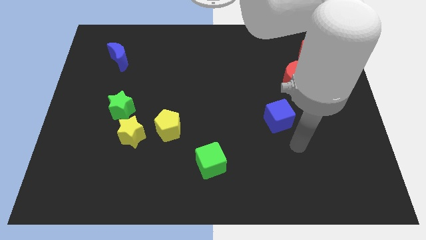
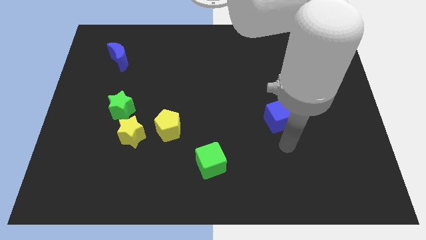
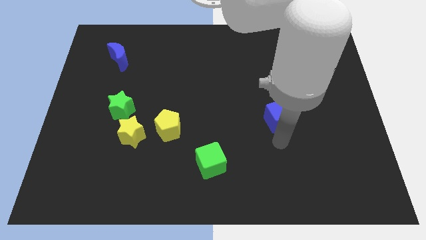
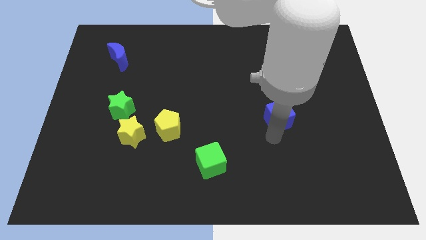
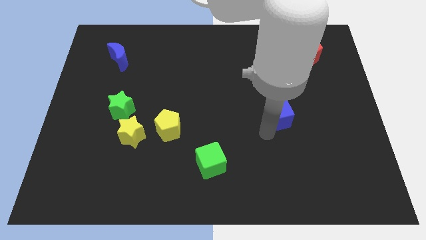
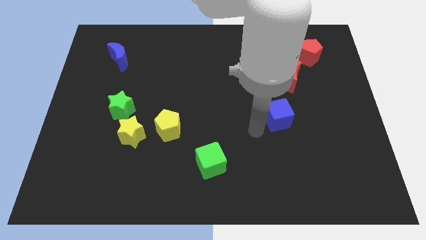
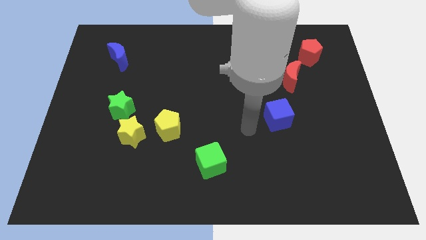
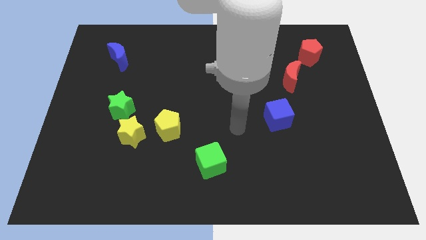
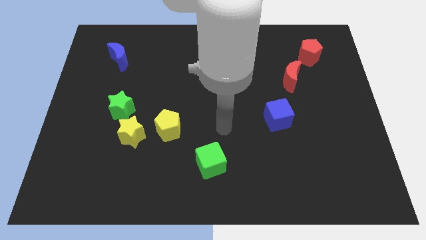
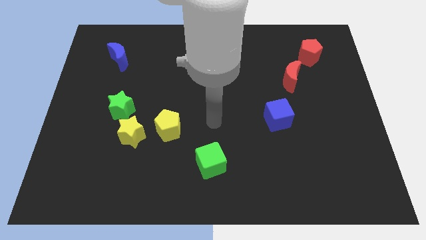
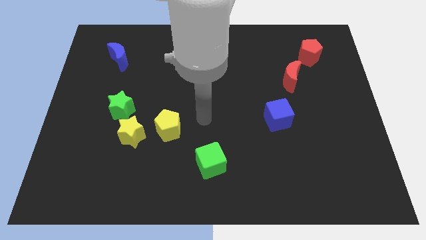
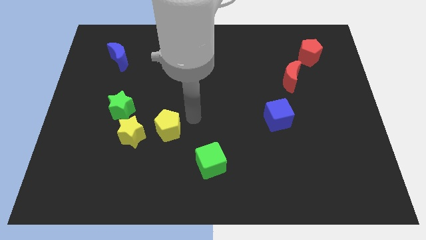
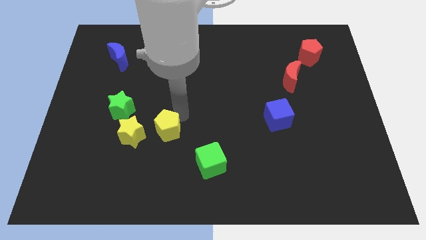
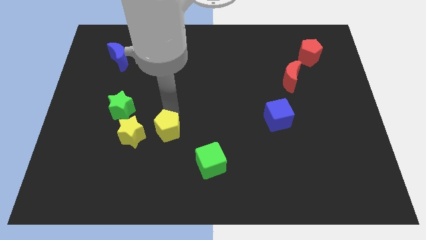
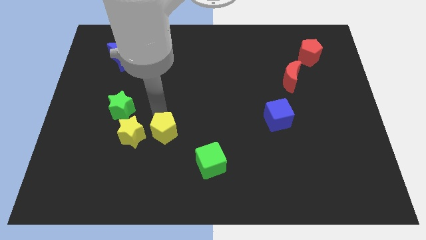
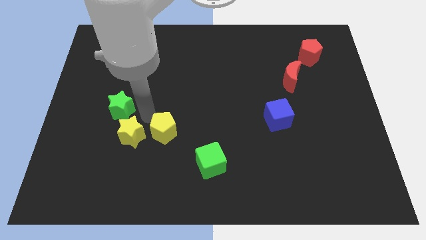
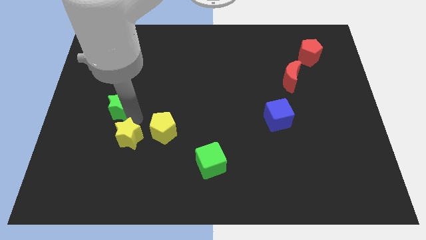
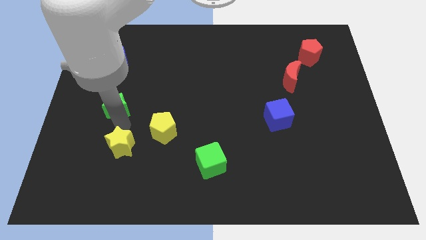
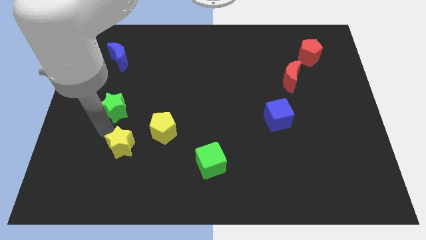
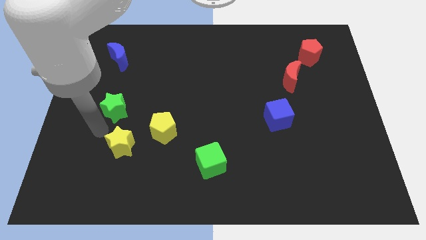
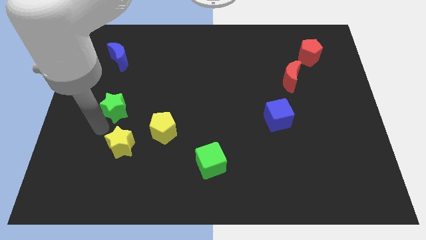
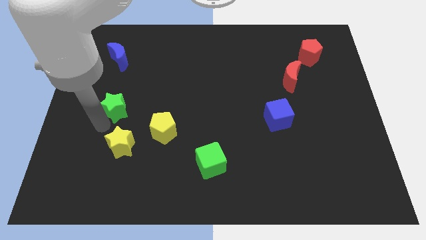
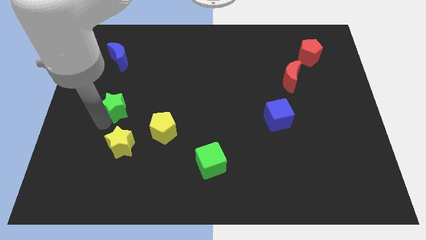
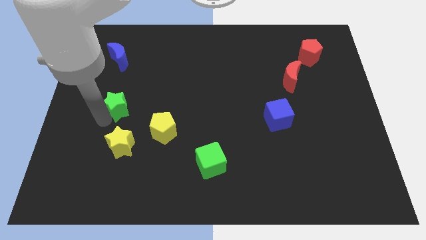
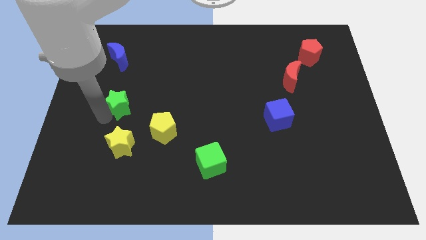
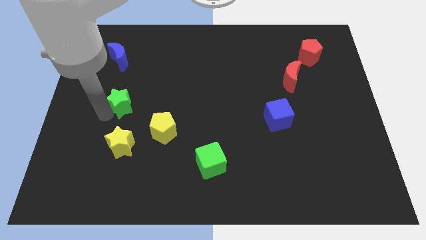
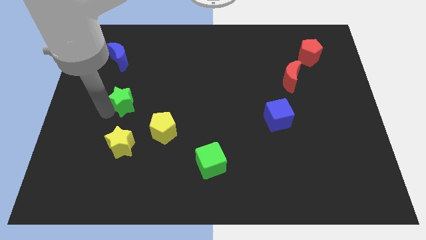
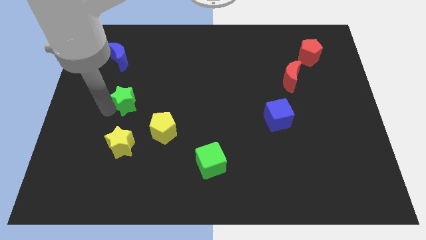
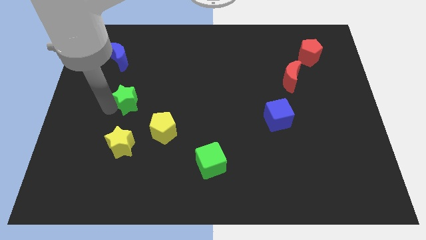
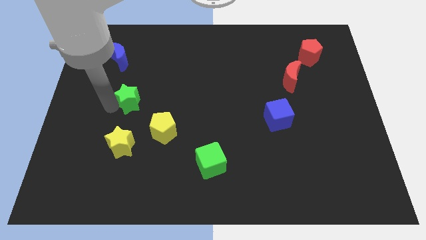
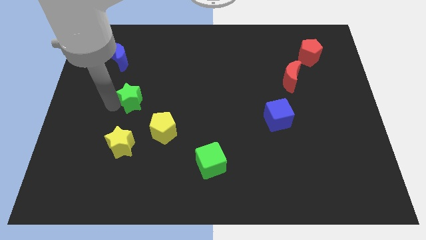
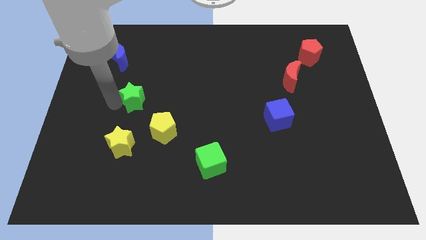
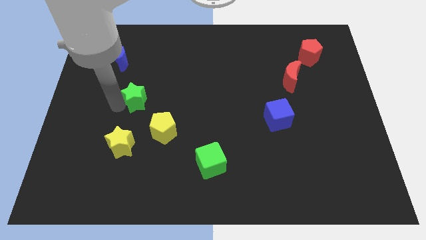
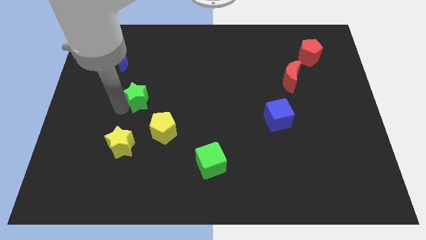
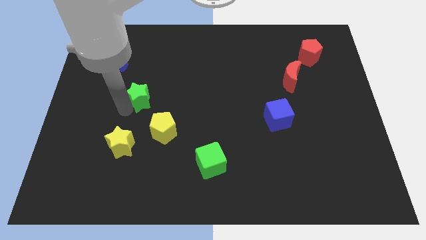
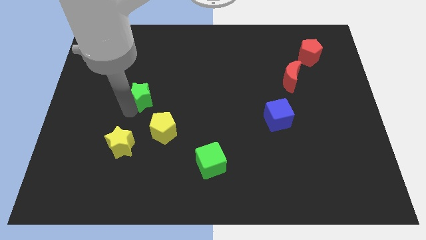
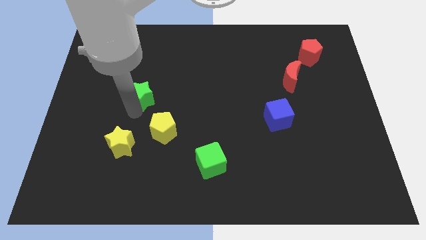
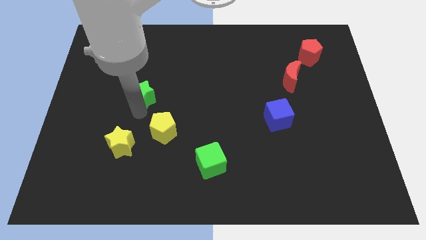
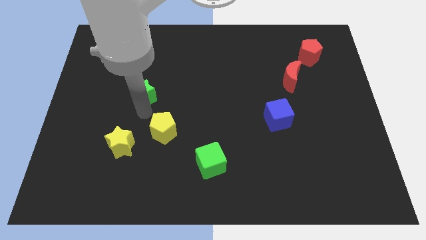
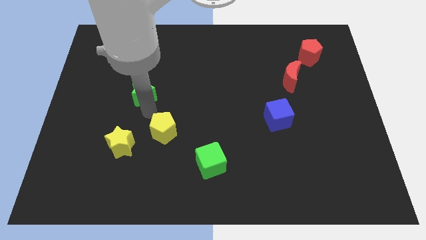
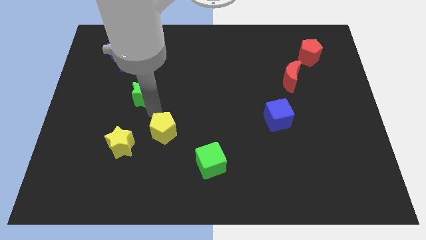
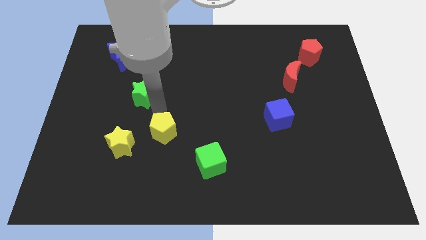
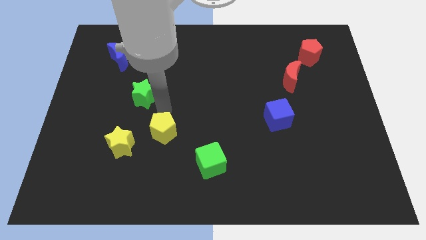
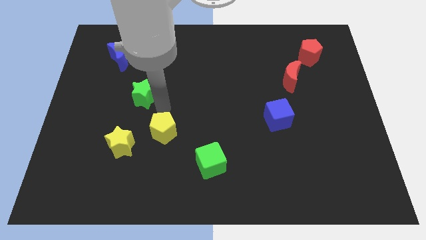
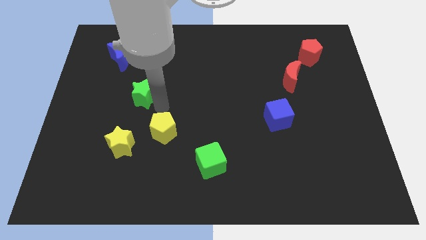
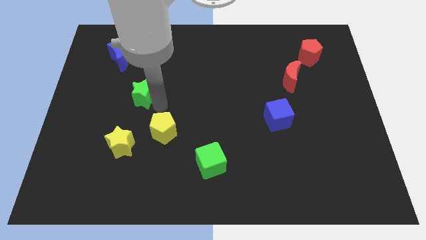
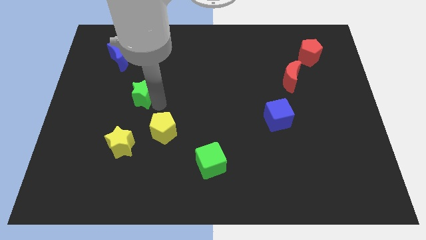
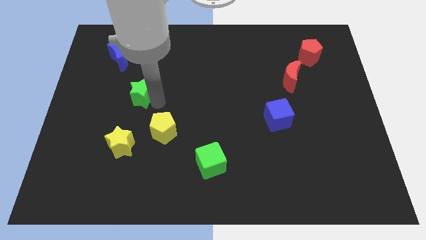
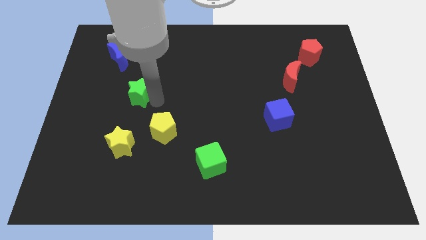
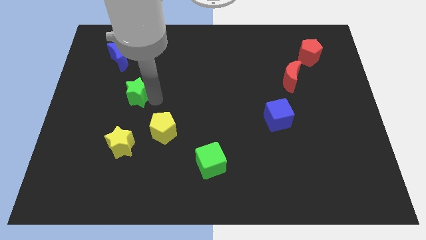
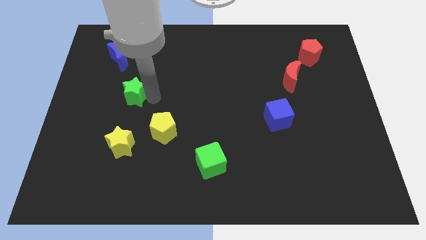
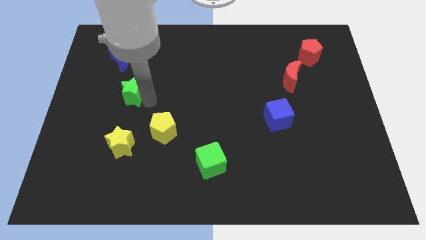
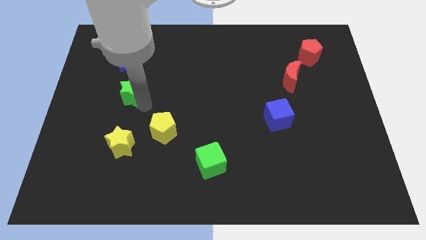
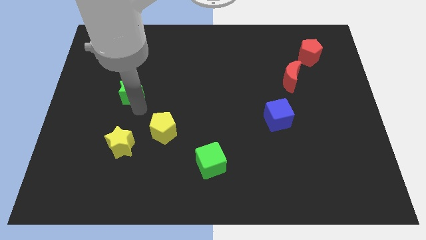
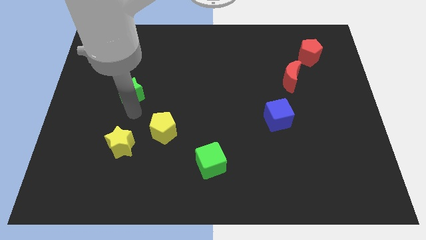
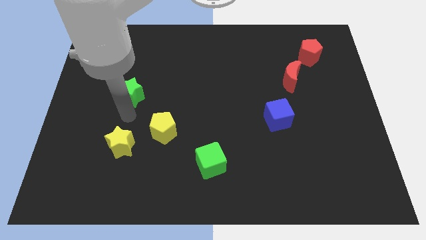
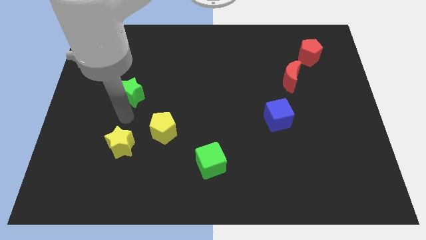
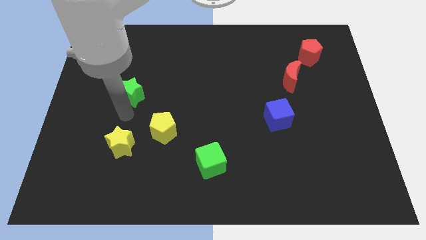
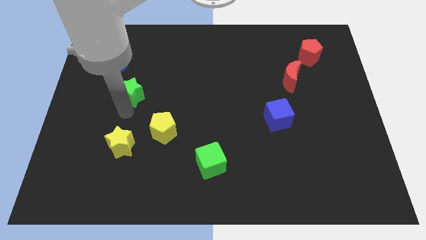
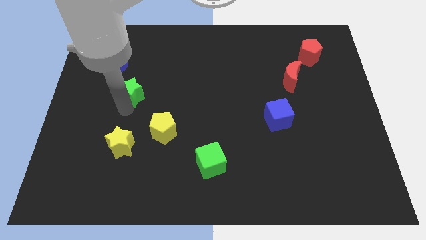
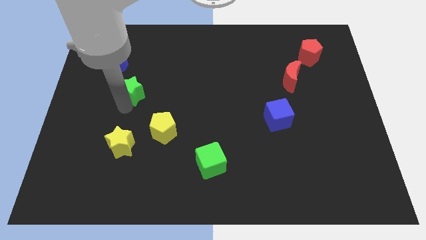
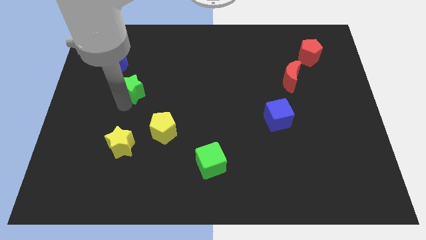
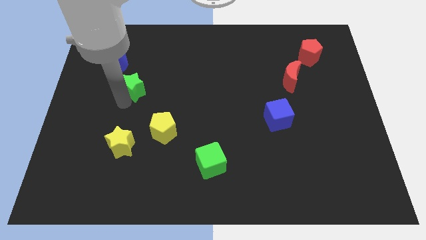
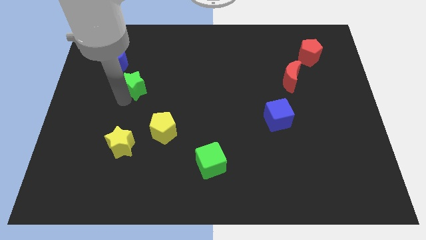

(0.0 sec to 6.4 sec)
push the green star to the bottom right side of the blue moon
